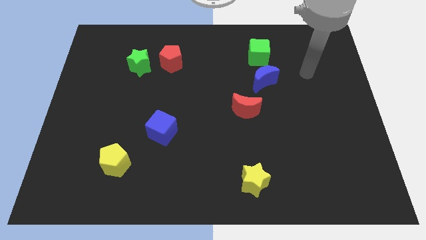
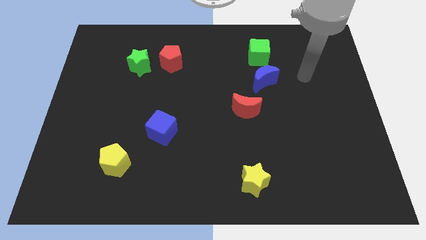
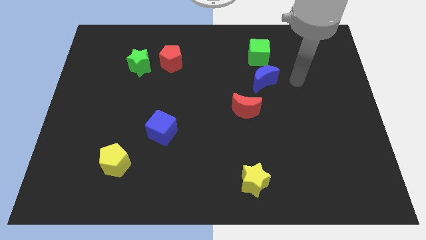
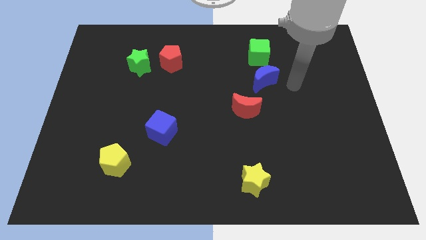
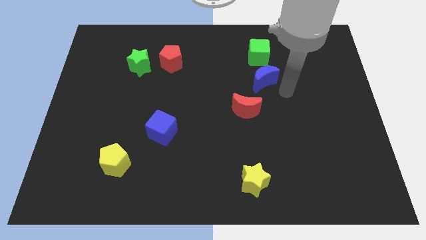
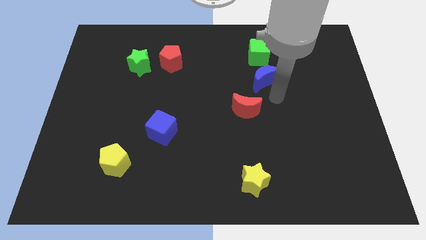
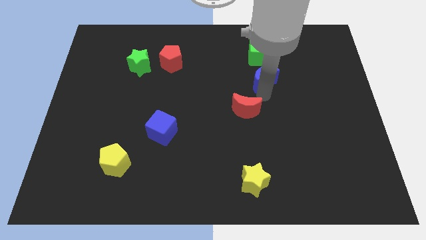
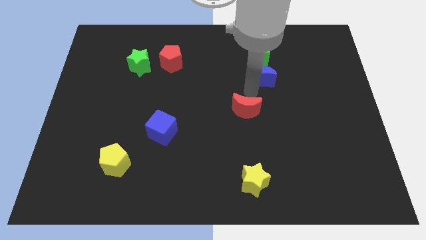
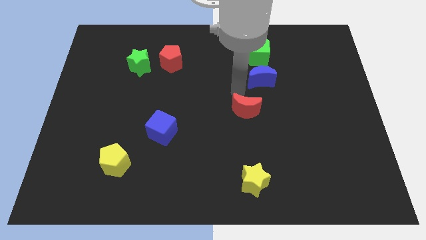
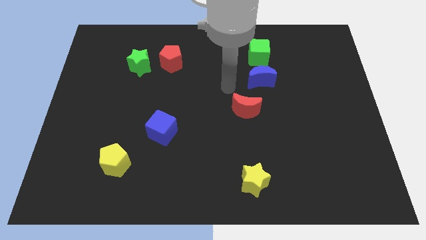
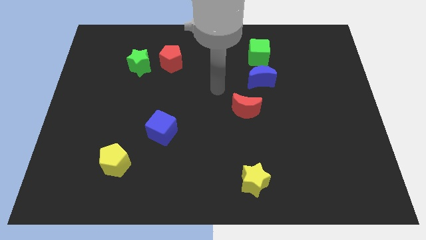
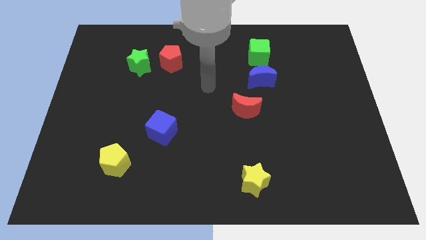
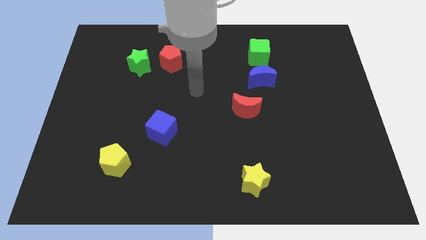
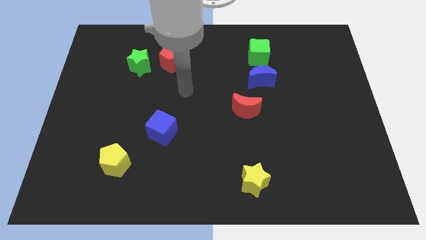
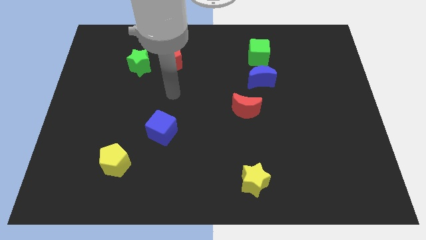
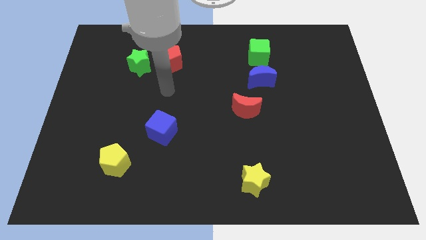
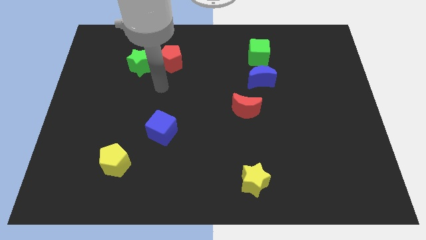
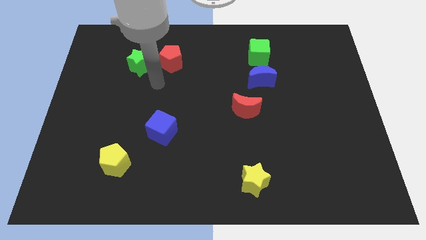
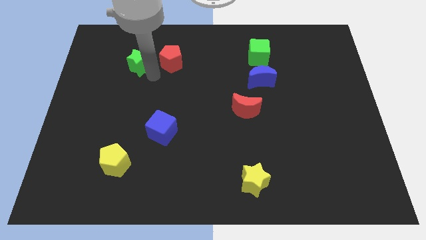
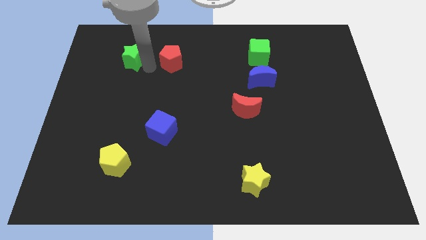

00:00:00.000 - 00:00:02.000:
pull the red pentagon apart from the green star

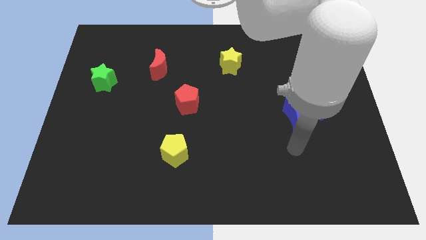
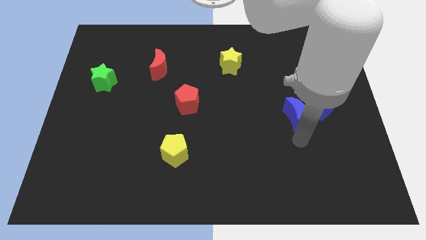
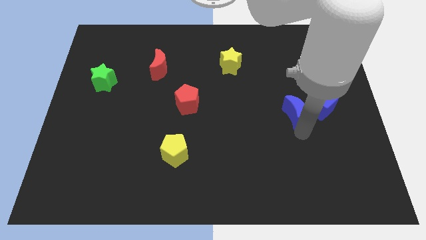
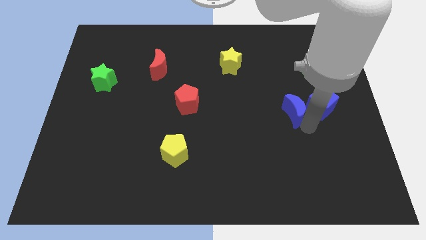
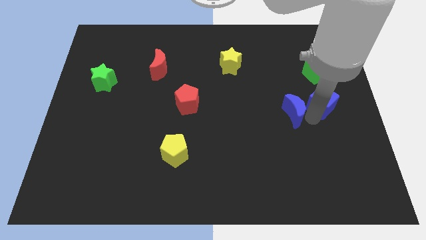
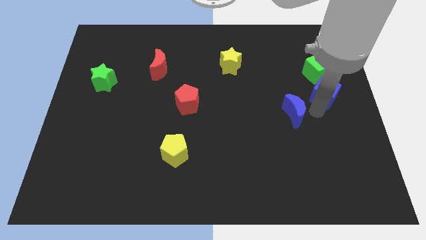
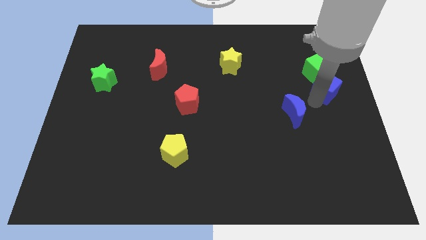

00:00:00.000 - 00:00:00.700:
separate the blue moon from the blue cube

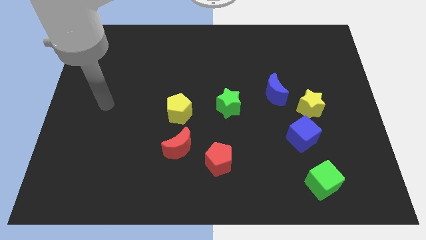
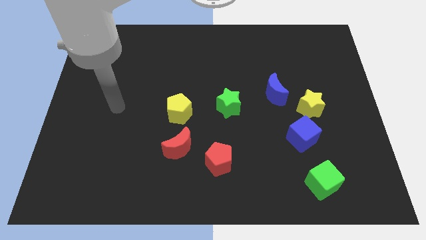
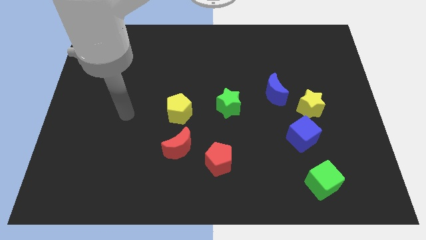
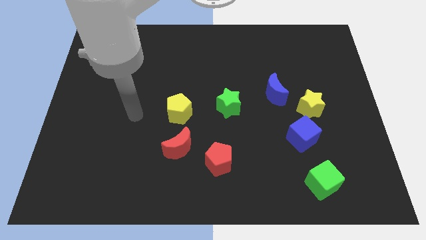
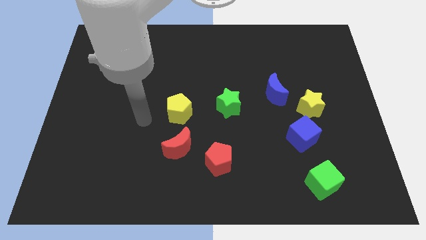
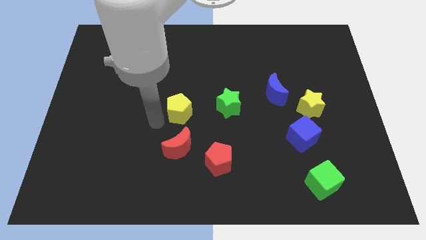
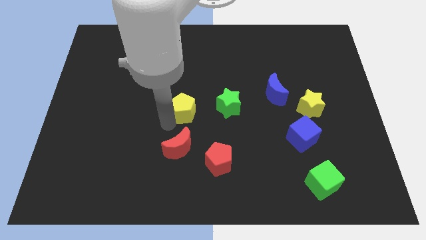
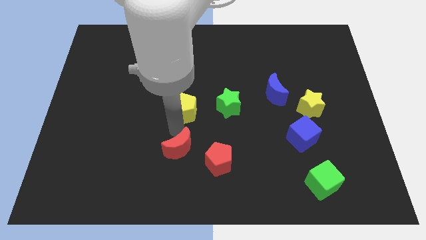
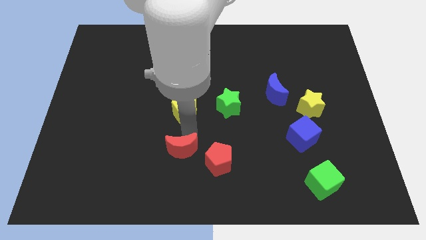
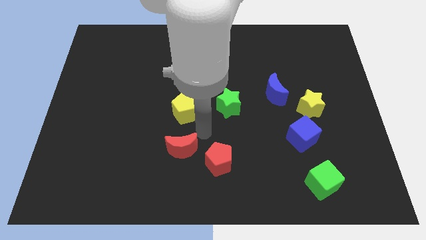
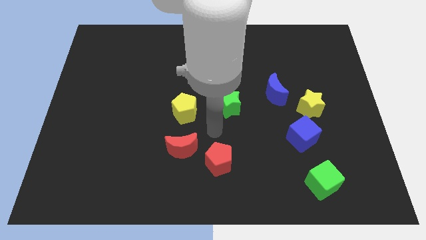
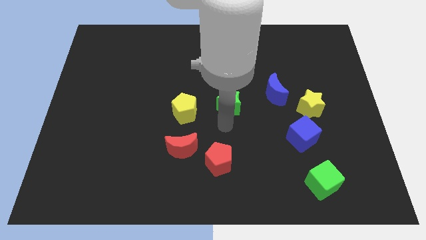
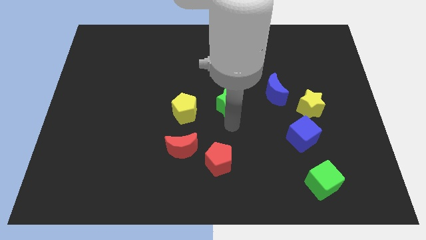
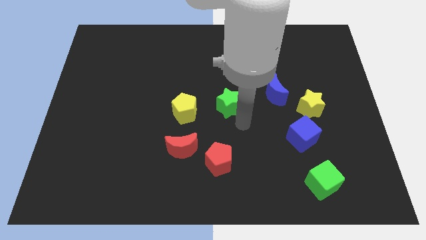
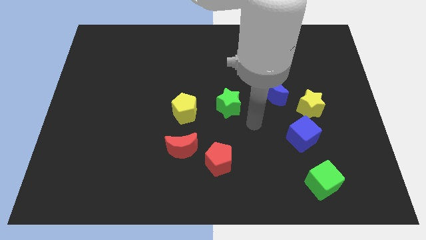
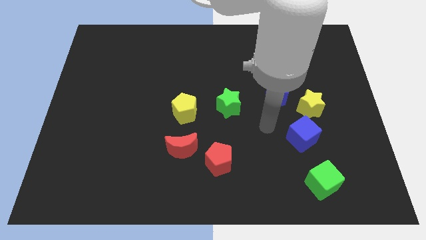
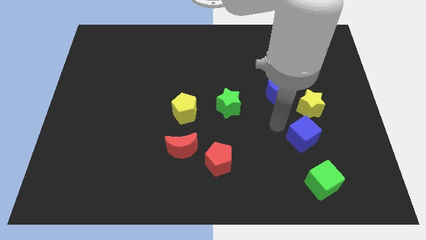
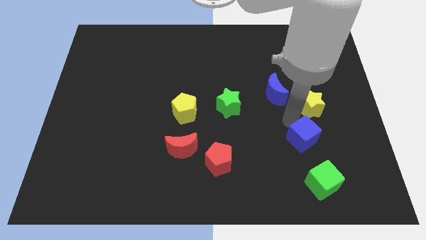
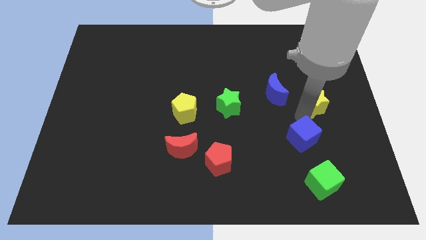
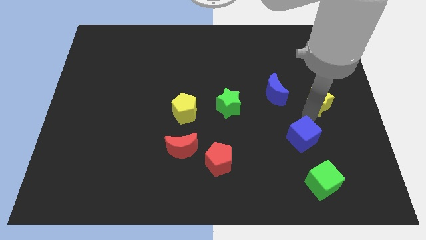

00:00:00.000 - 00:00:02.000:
separate the blue cube from the yellow star

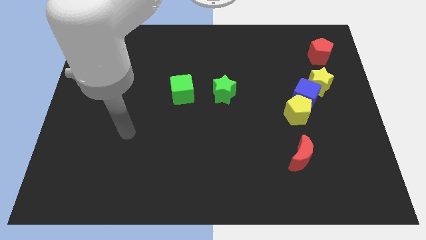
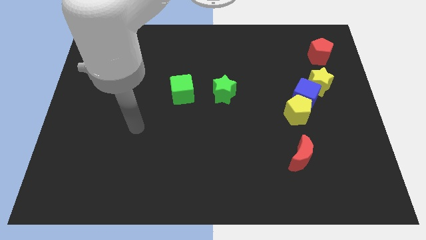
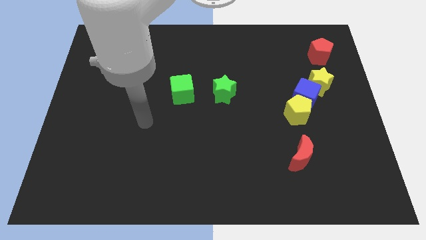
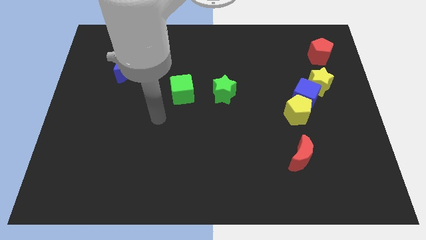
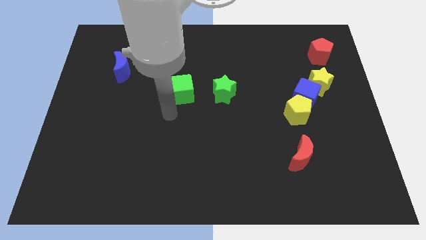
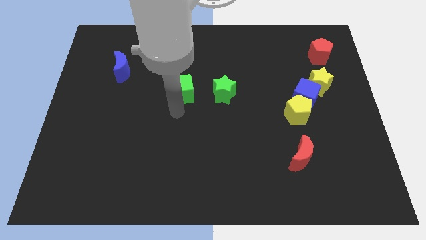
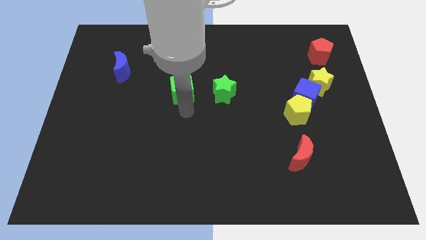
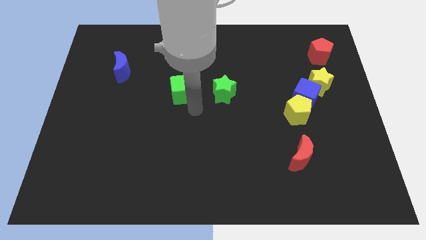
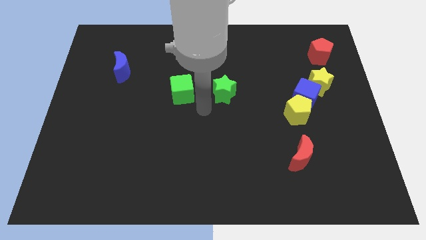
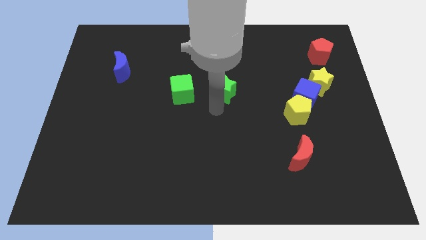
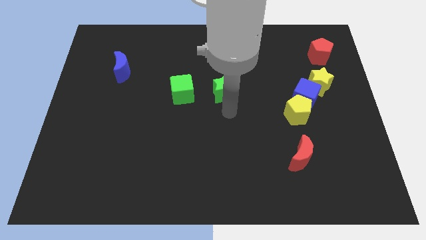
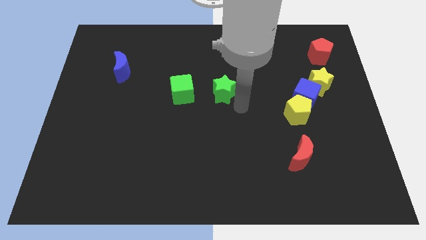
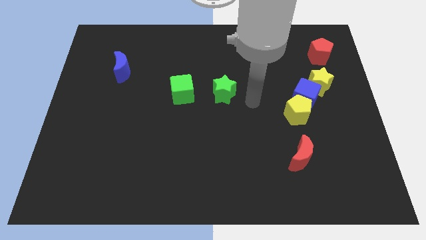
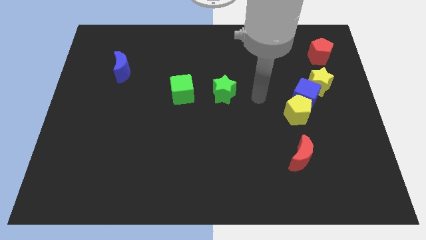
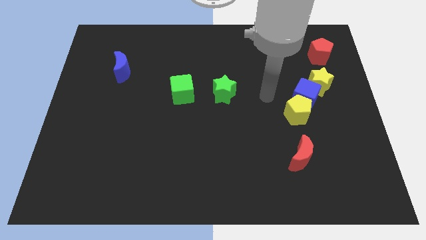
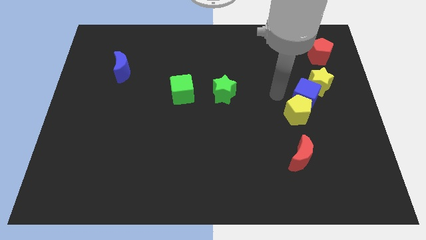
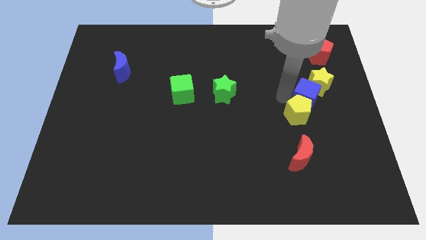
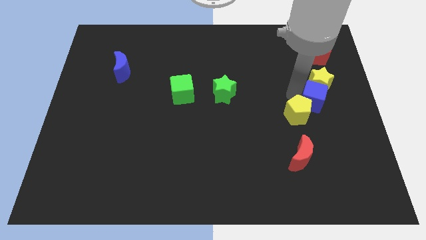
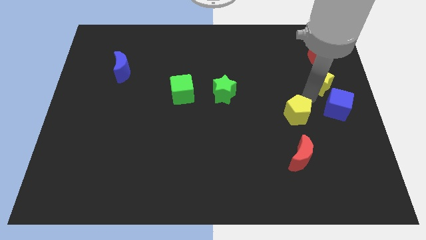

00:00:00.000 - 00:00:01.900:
move the yellow pentagon away from the blue cube

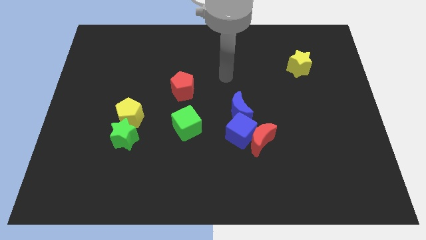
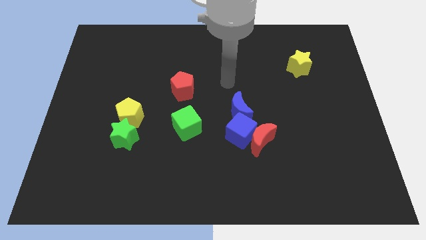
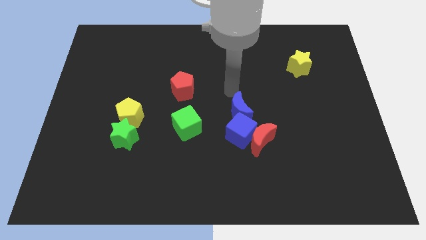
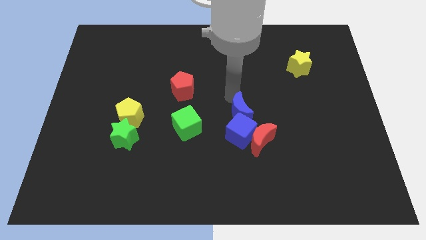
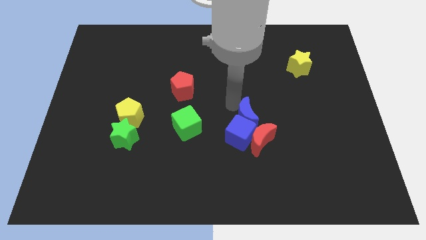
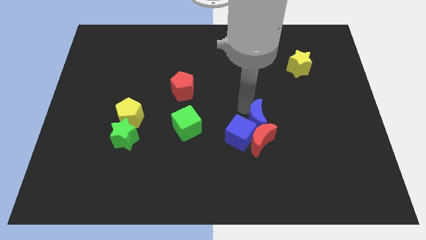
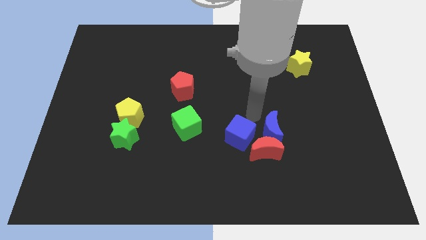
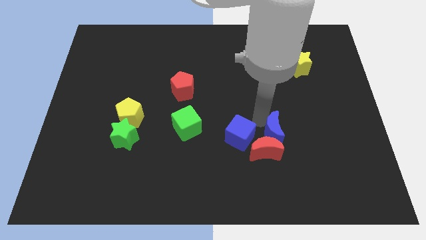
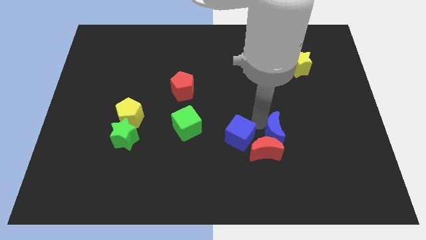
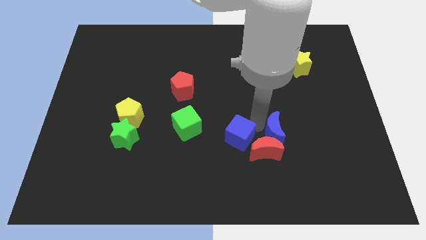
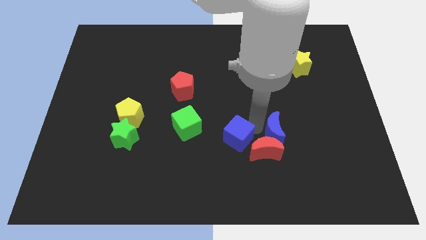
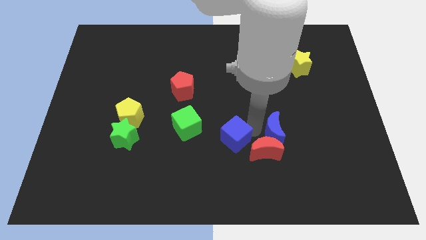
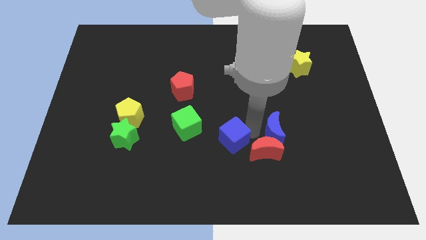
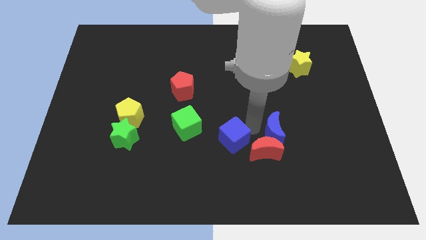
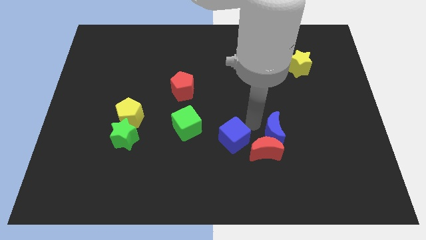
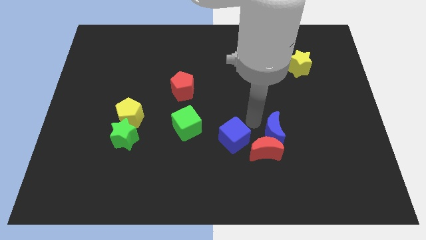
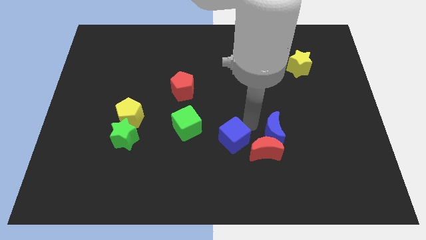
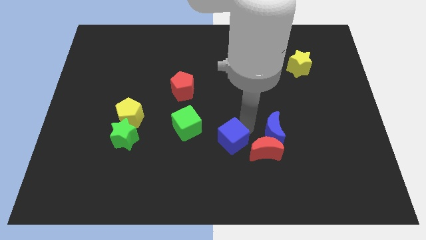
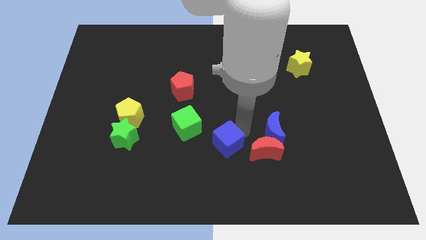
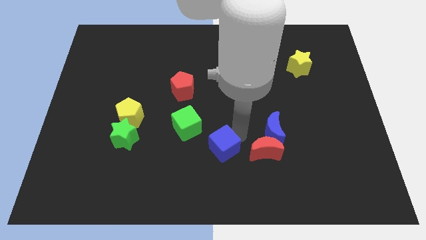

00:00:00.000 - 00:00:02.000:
separate the blue cube from the red moon and blue moon

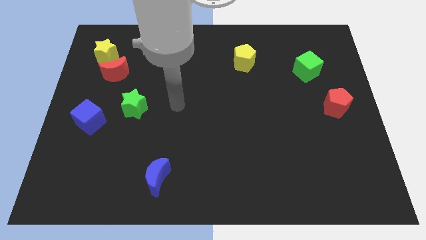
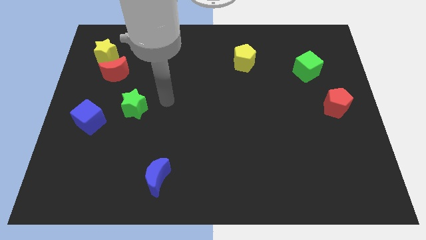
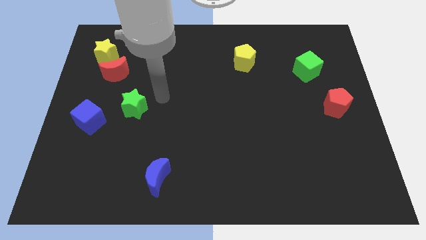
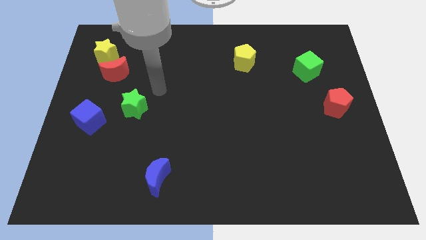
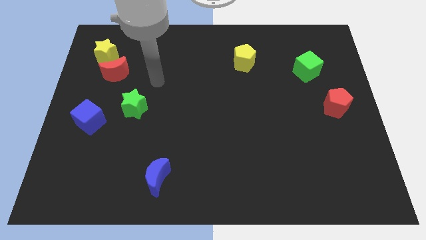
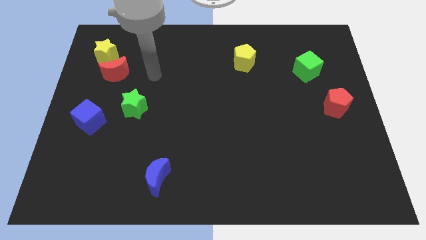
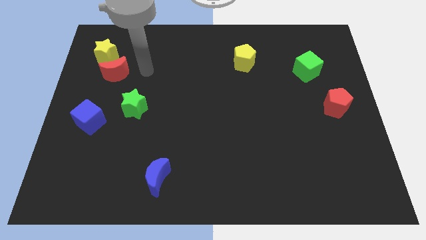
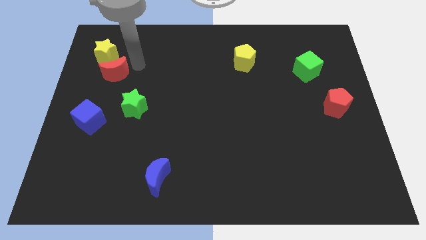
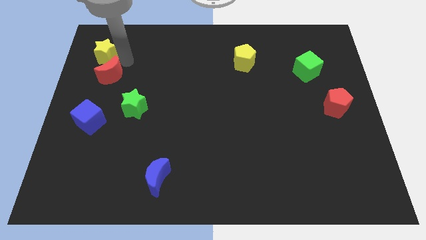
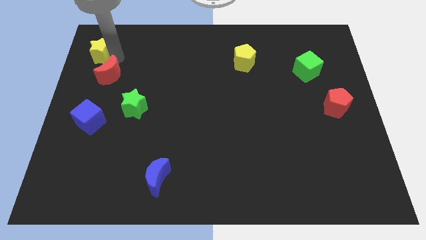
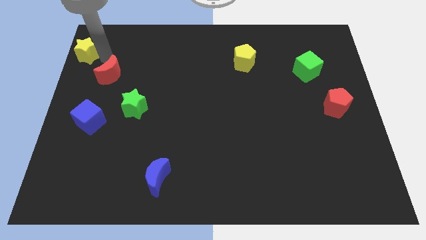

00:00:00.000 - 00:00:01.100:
separate the red moon from the yellow star
